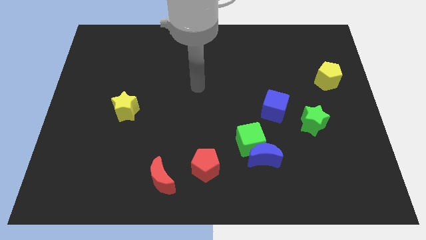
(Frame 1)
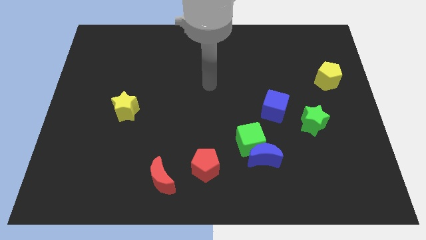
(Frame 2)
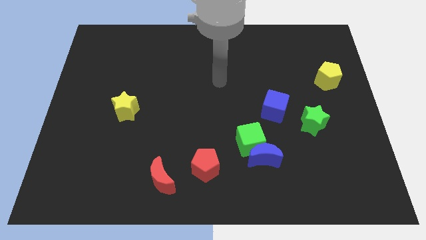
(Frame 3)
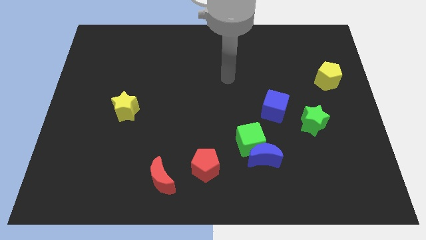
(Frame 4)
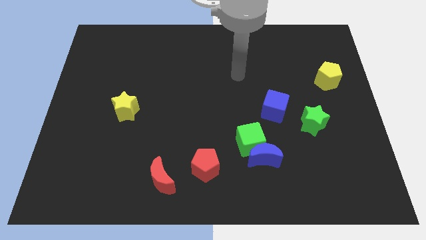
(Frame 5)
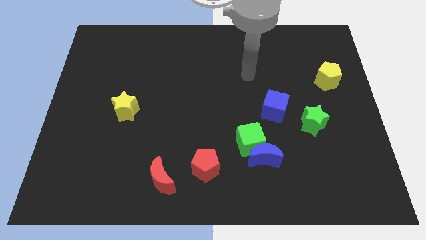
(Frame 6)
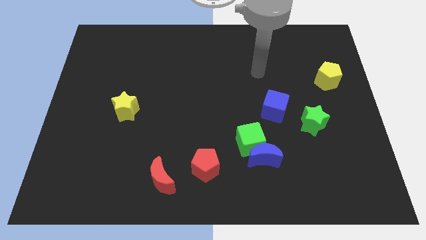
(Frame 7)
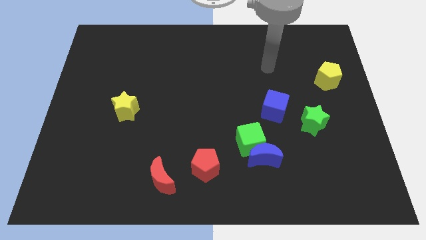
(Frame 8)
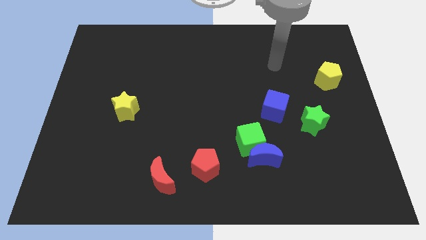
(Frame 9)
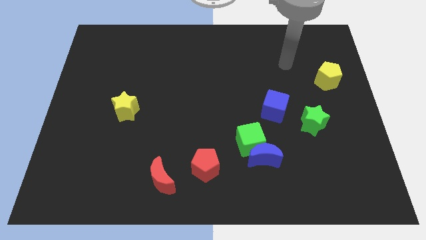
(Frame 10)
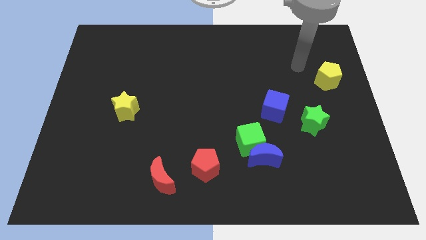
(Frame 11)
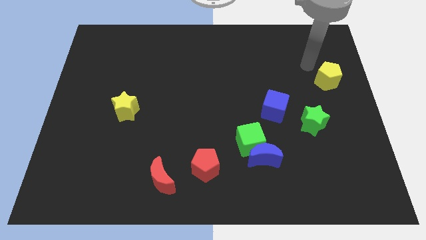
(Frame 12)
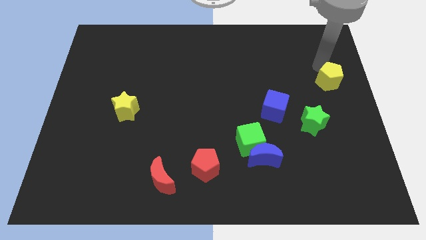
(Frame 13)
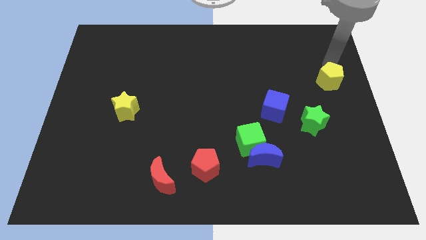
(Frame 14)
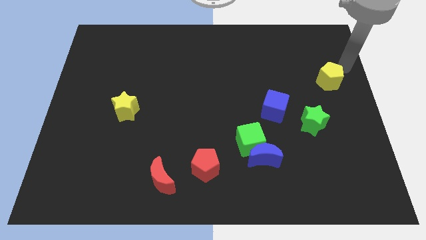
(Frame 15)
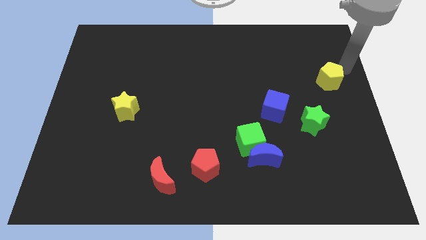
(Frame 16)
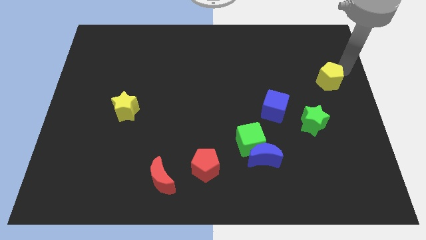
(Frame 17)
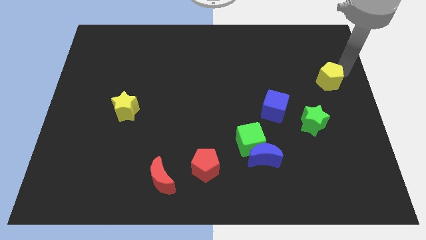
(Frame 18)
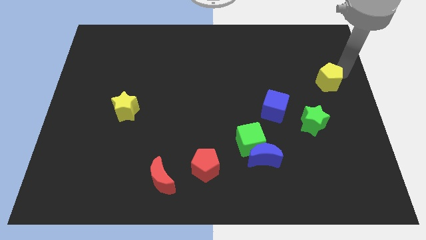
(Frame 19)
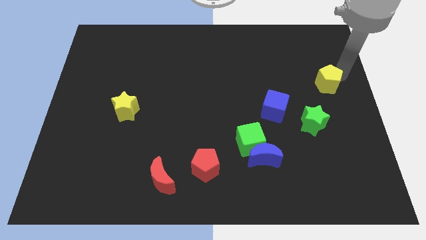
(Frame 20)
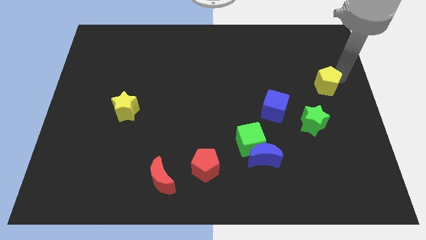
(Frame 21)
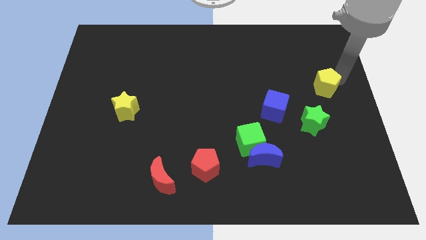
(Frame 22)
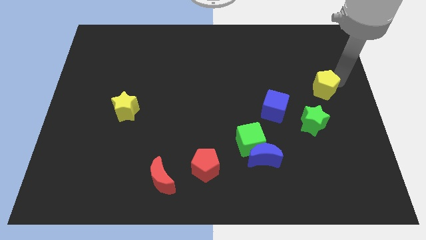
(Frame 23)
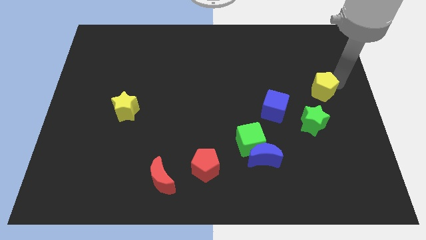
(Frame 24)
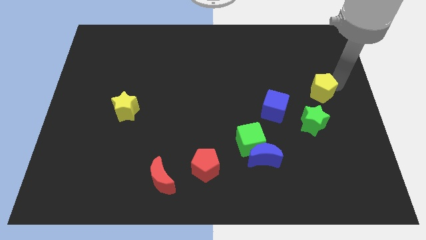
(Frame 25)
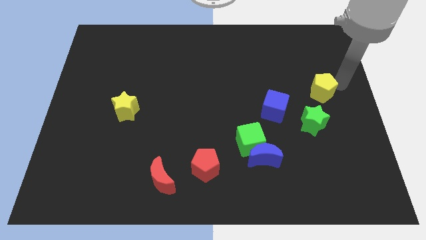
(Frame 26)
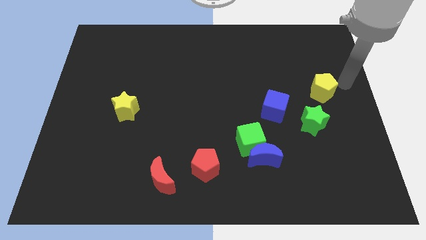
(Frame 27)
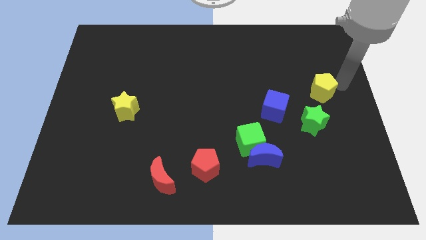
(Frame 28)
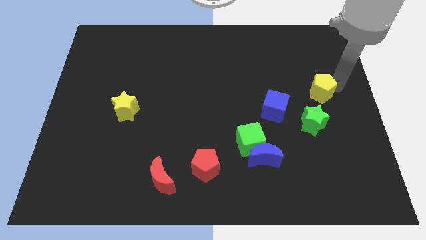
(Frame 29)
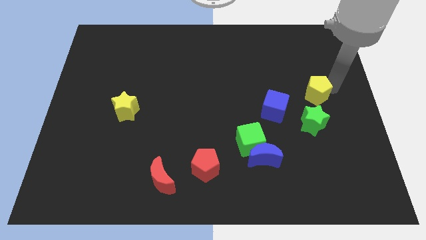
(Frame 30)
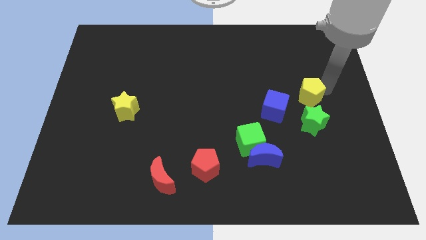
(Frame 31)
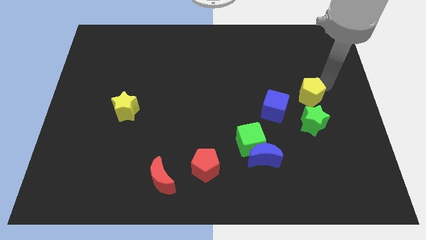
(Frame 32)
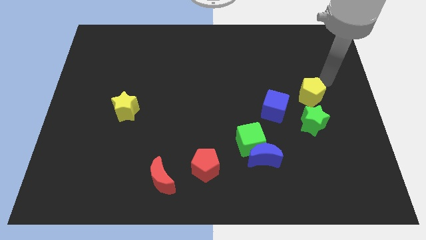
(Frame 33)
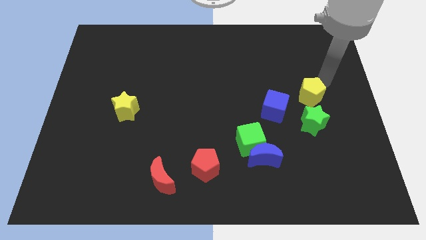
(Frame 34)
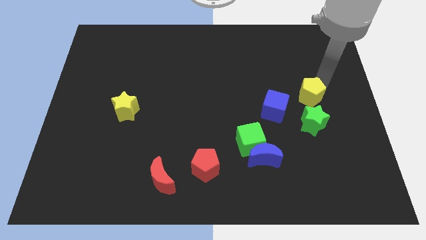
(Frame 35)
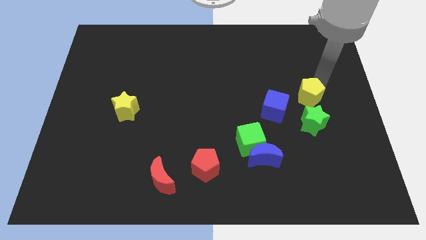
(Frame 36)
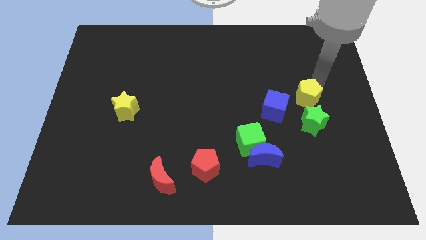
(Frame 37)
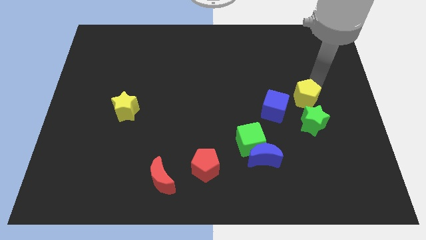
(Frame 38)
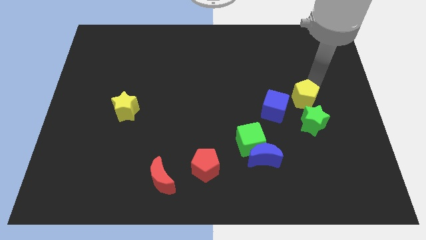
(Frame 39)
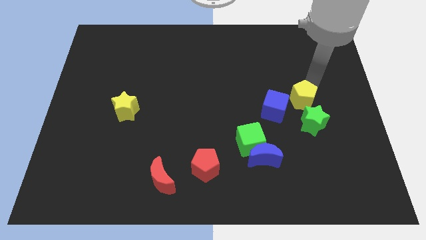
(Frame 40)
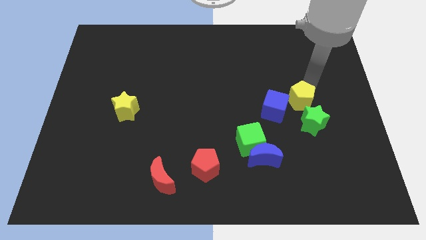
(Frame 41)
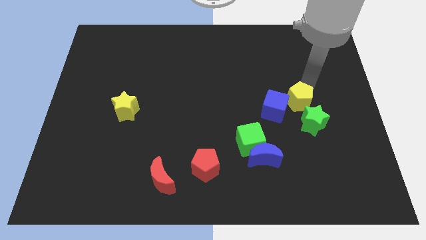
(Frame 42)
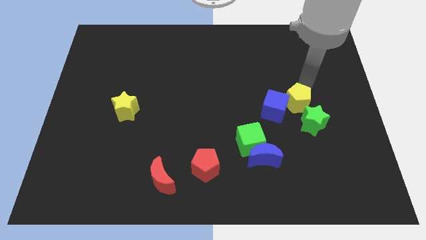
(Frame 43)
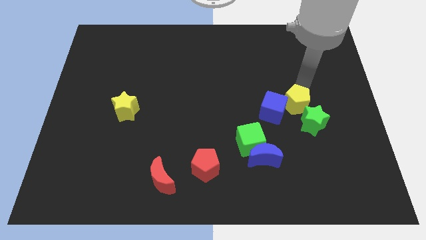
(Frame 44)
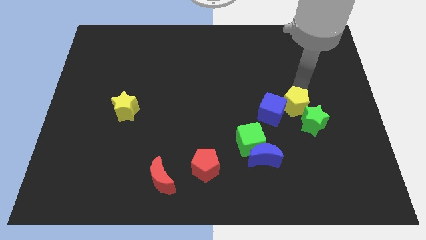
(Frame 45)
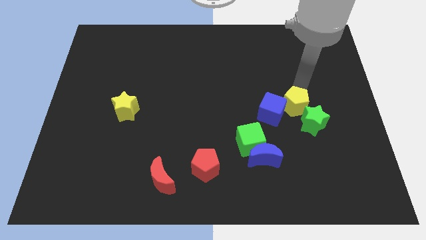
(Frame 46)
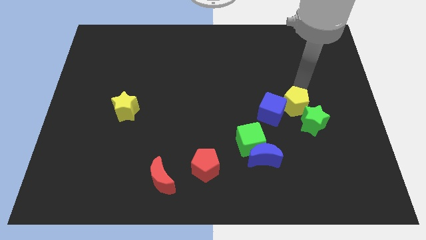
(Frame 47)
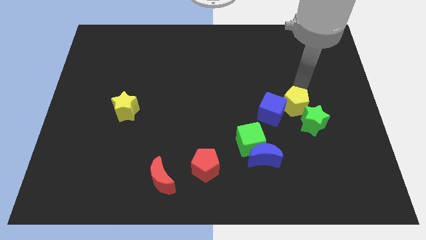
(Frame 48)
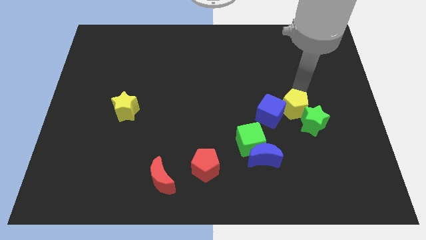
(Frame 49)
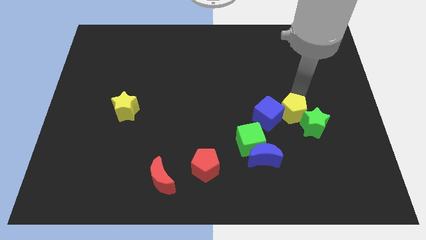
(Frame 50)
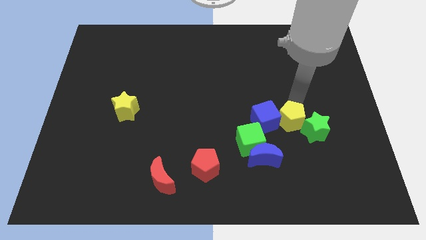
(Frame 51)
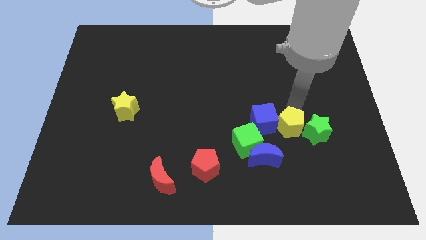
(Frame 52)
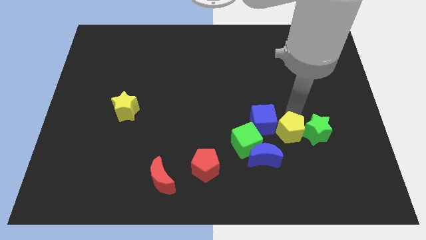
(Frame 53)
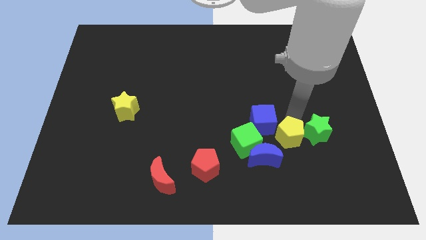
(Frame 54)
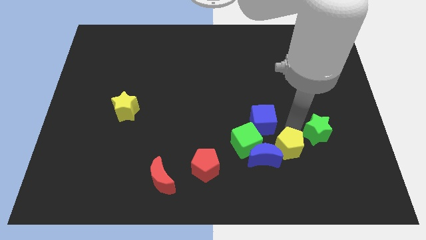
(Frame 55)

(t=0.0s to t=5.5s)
push the yellow pentagon to the blue moon

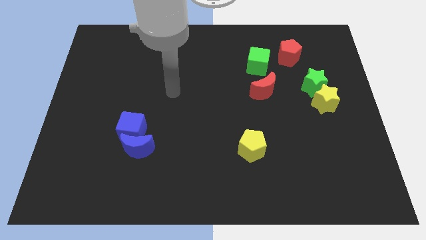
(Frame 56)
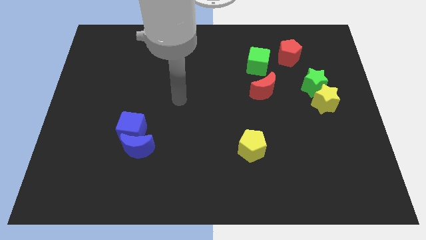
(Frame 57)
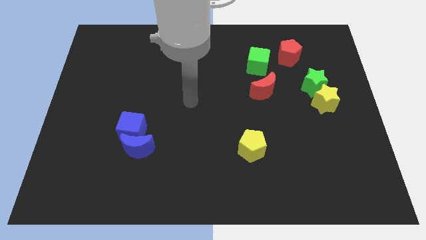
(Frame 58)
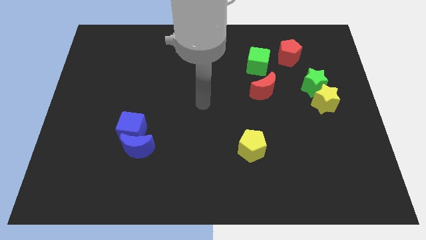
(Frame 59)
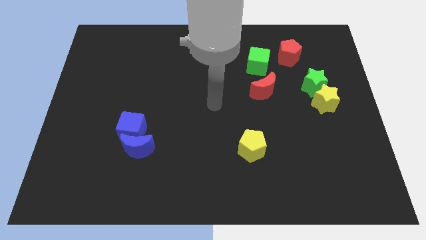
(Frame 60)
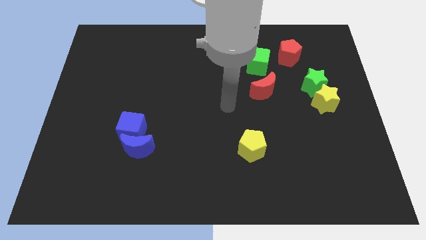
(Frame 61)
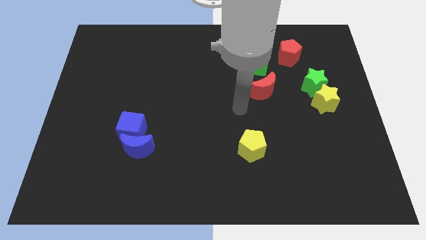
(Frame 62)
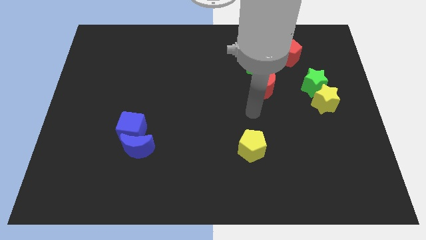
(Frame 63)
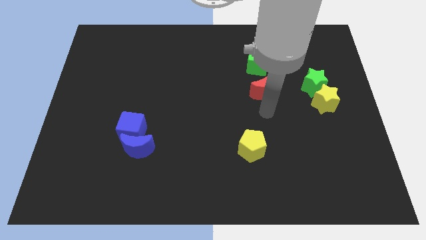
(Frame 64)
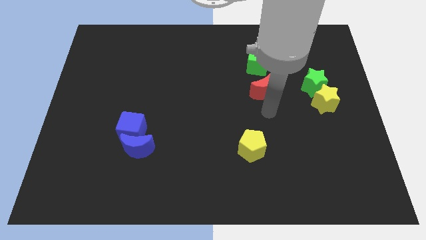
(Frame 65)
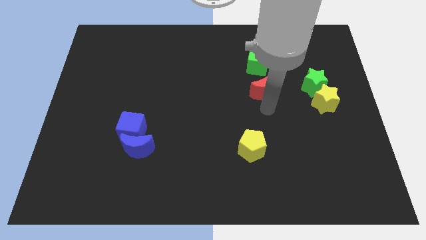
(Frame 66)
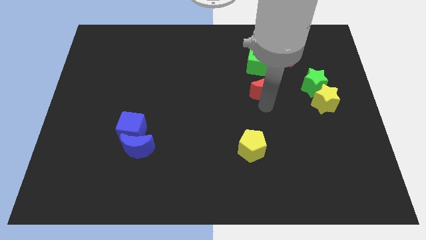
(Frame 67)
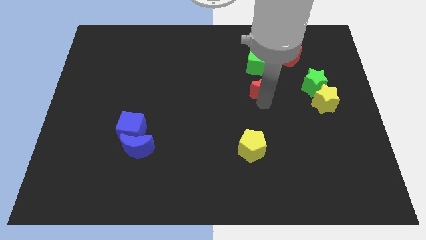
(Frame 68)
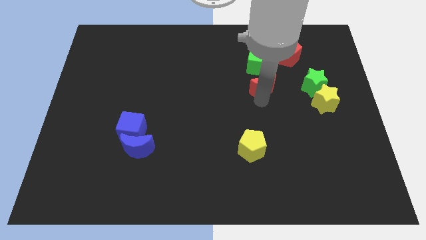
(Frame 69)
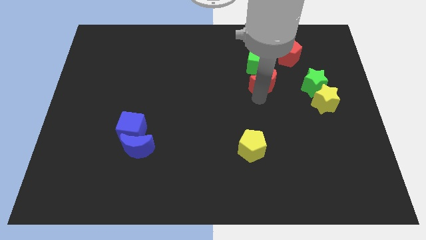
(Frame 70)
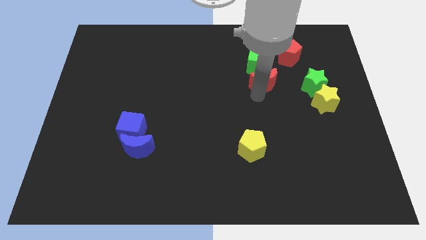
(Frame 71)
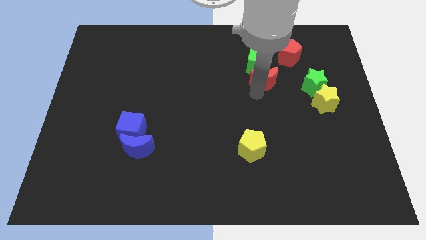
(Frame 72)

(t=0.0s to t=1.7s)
push the red moon next to the green cube
